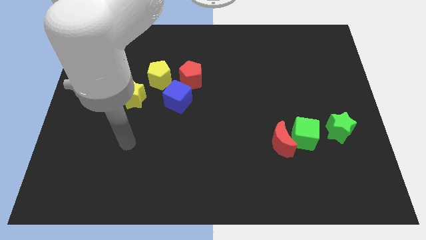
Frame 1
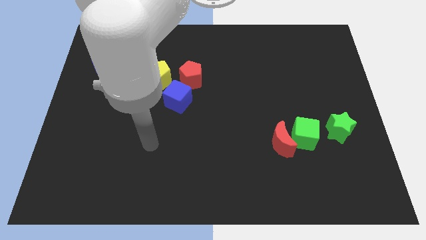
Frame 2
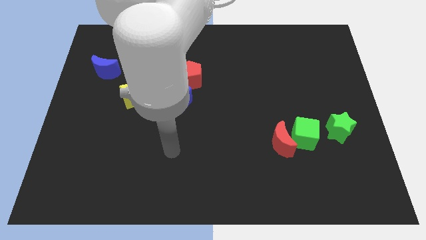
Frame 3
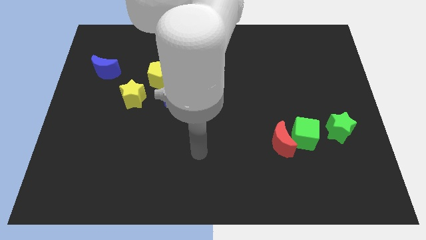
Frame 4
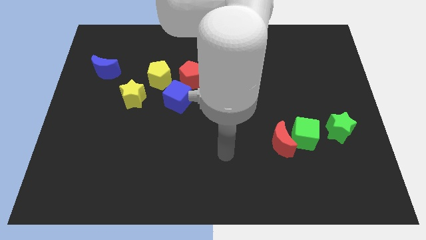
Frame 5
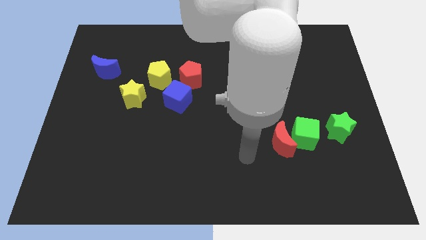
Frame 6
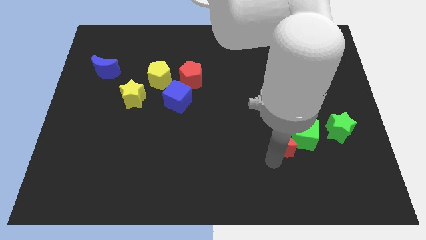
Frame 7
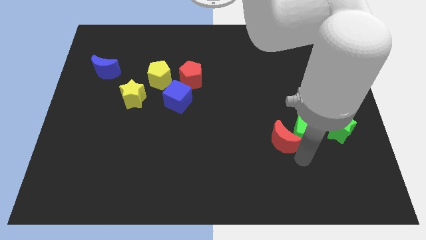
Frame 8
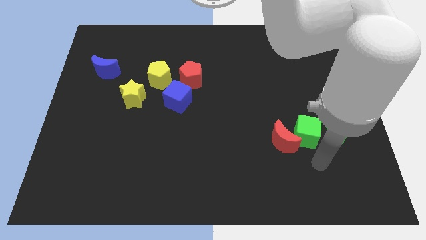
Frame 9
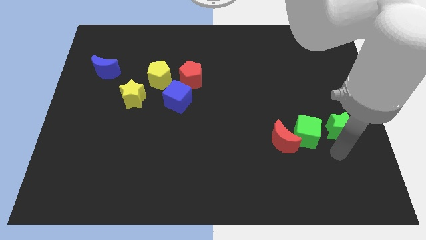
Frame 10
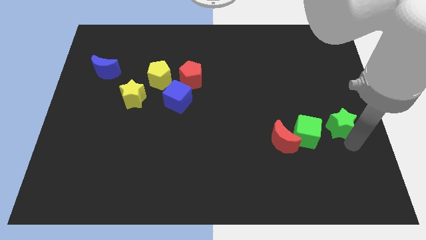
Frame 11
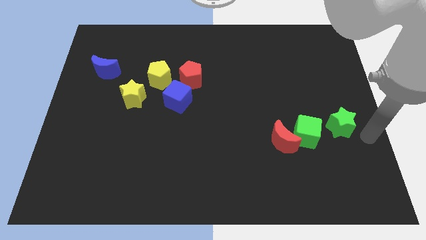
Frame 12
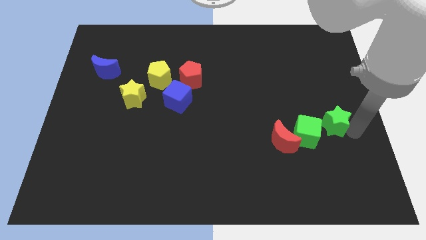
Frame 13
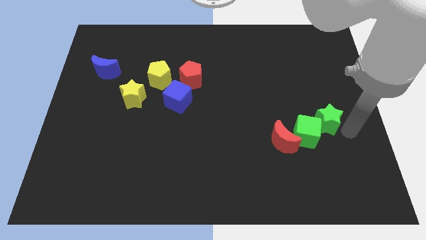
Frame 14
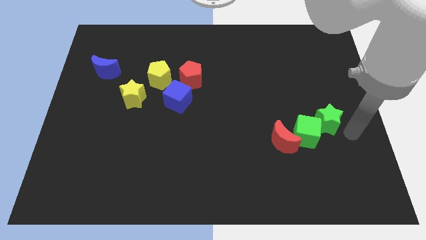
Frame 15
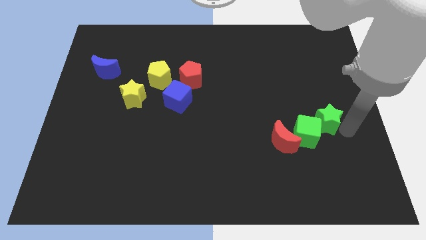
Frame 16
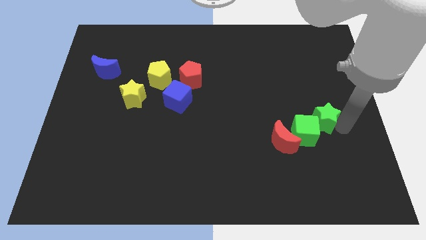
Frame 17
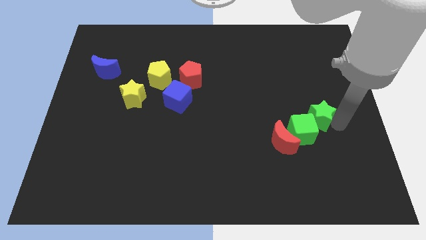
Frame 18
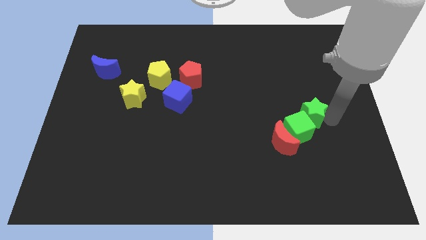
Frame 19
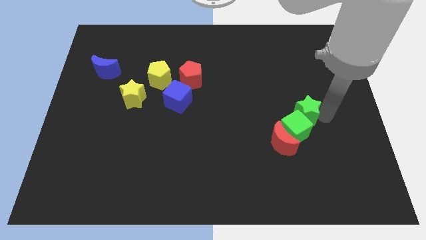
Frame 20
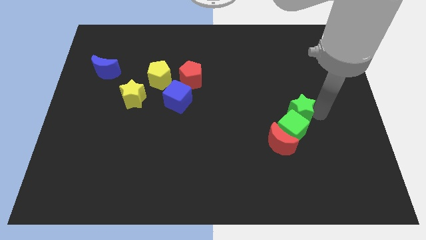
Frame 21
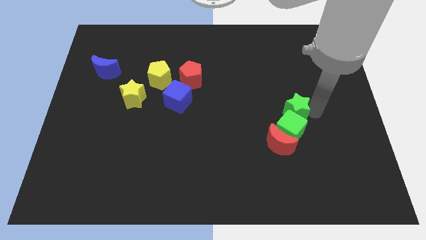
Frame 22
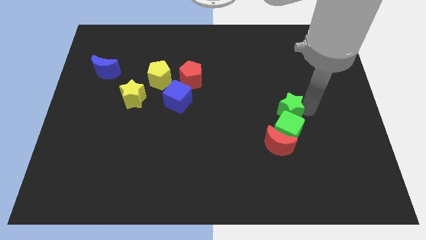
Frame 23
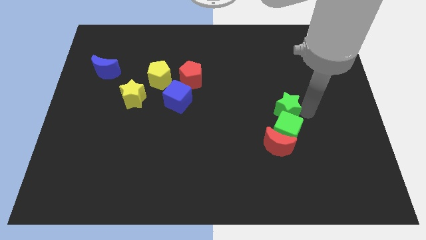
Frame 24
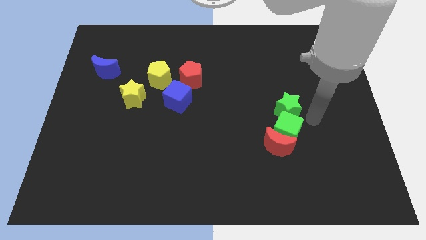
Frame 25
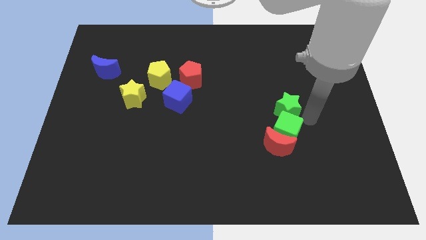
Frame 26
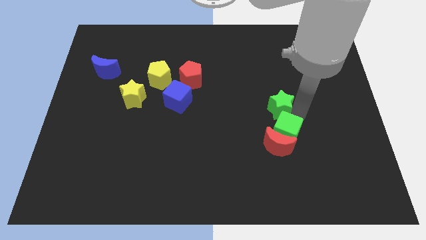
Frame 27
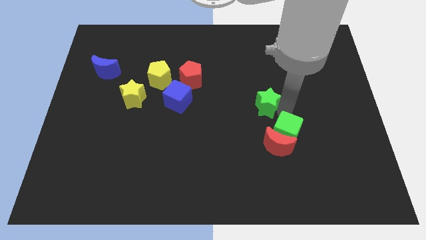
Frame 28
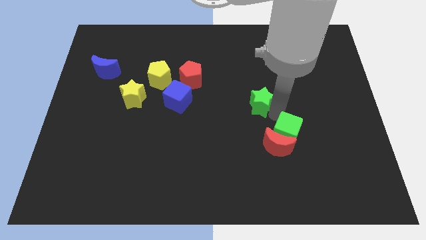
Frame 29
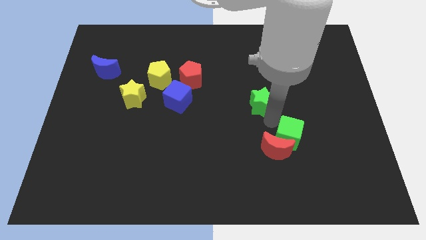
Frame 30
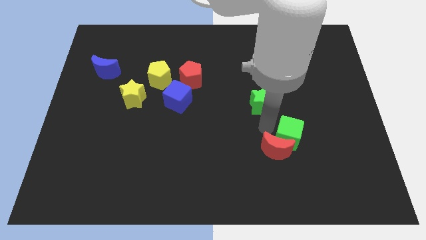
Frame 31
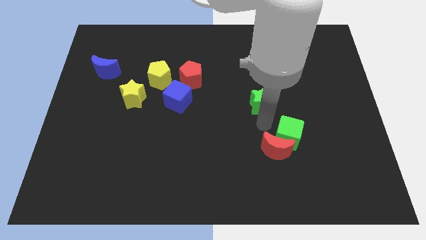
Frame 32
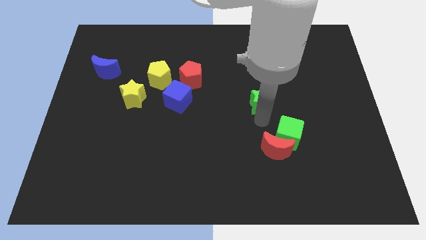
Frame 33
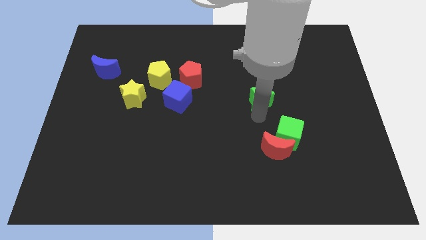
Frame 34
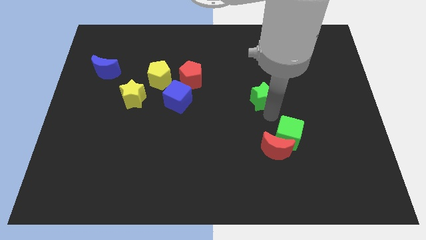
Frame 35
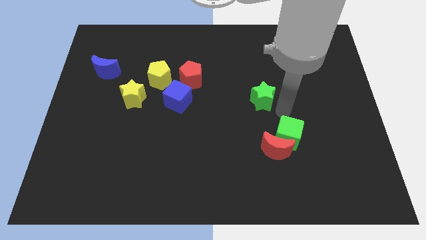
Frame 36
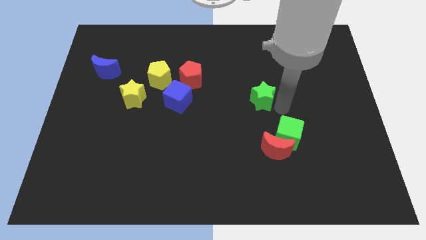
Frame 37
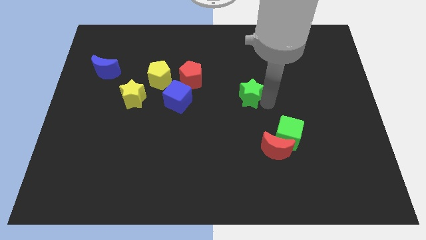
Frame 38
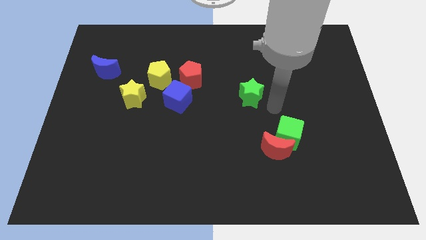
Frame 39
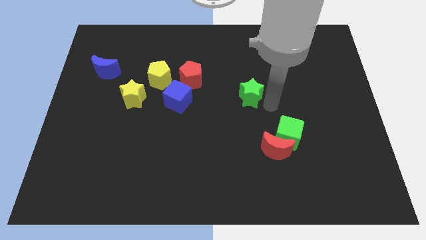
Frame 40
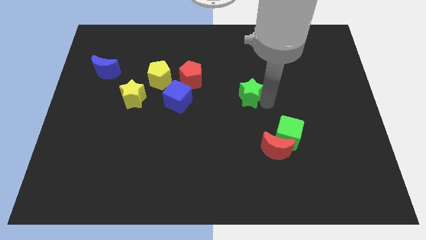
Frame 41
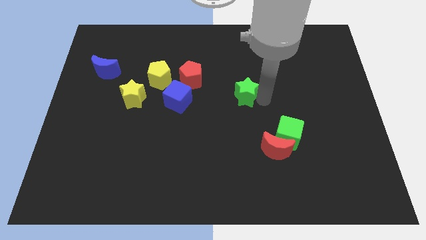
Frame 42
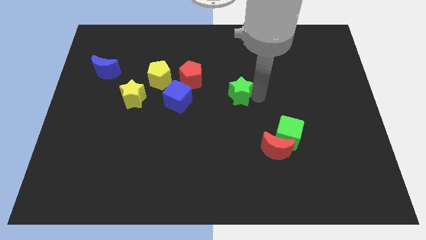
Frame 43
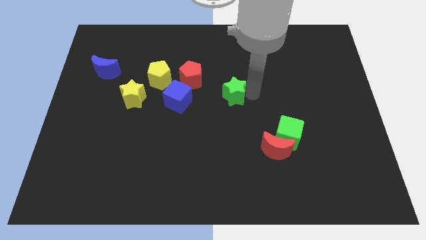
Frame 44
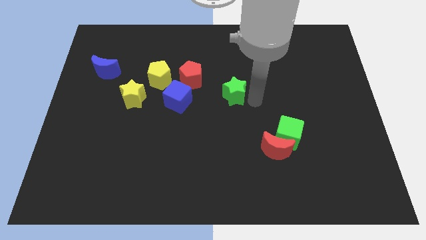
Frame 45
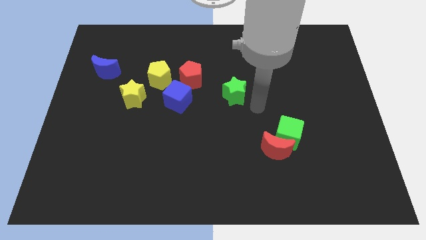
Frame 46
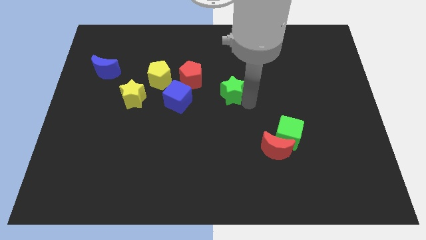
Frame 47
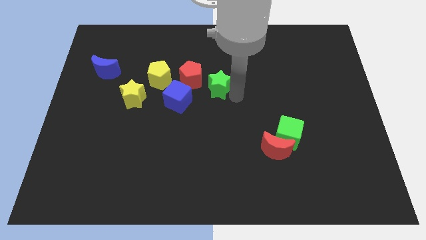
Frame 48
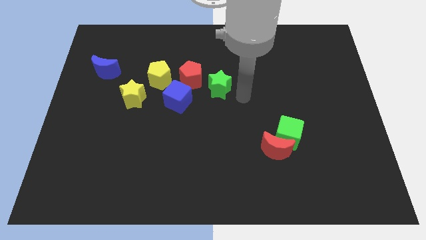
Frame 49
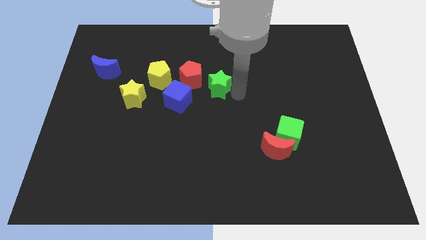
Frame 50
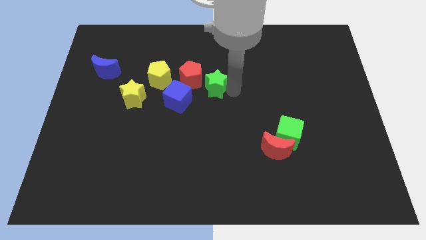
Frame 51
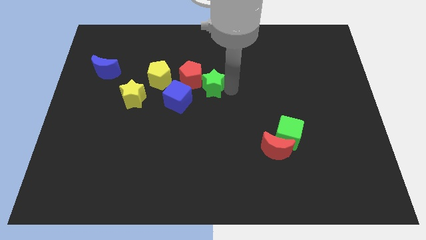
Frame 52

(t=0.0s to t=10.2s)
slide the green star next to the red pentagon

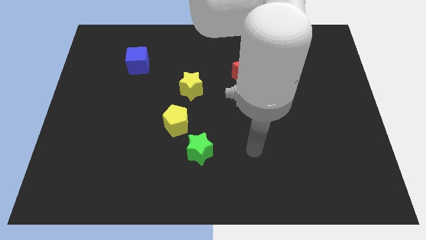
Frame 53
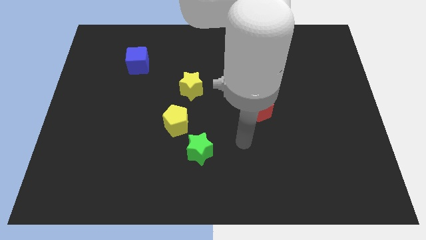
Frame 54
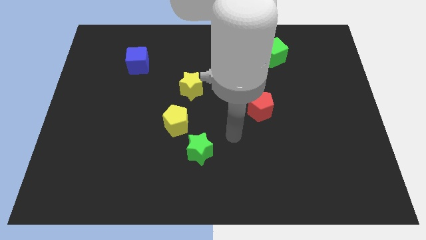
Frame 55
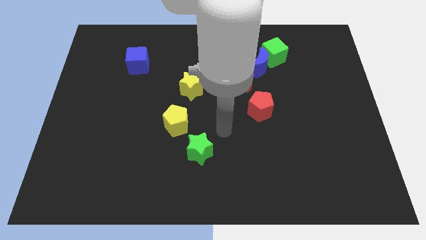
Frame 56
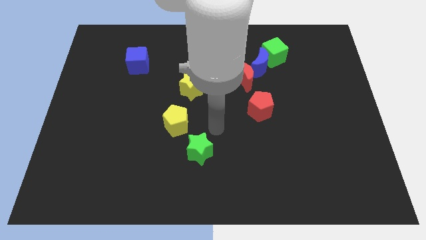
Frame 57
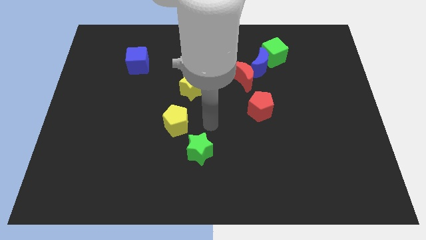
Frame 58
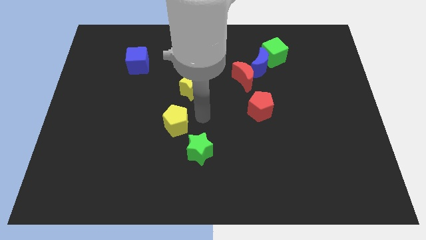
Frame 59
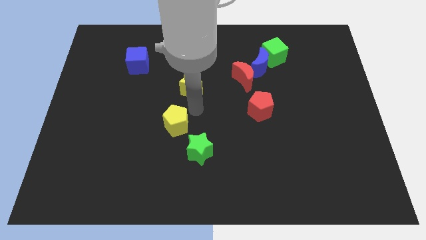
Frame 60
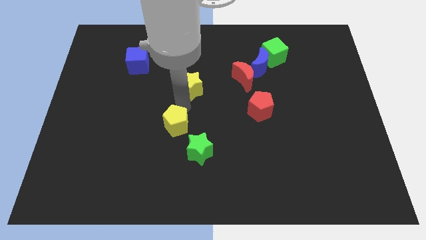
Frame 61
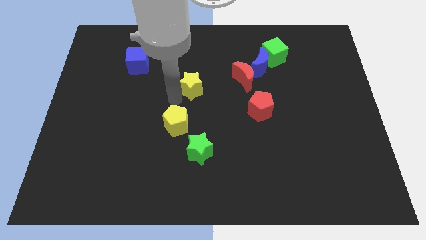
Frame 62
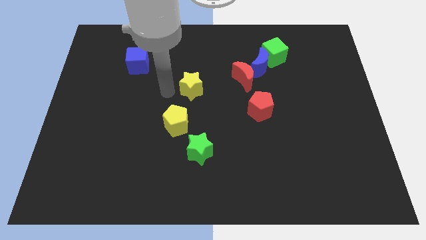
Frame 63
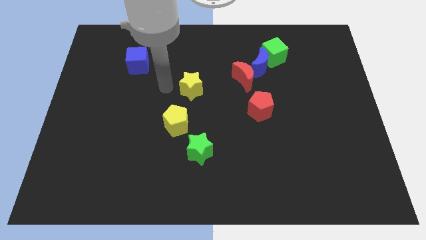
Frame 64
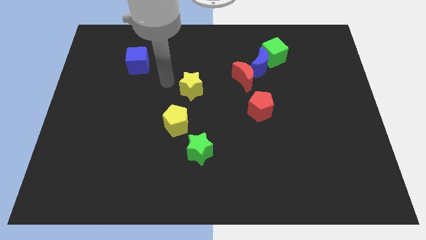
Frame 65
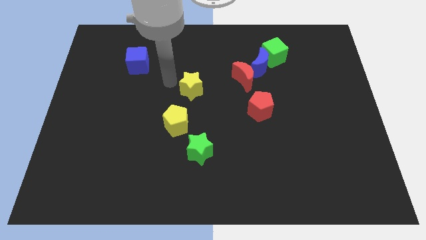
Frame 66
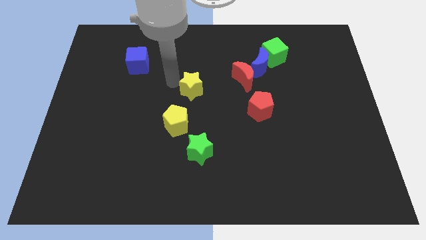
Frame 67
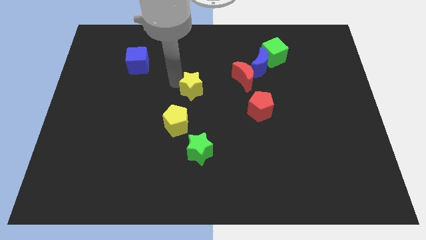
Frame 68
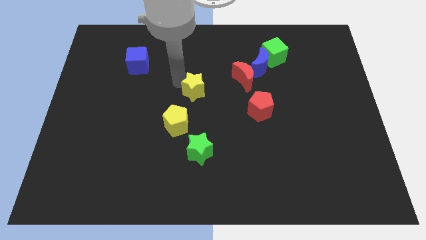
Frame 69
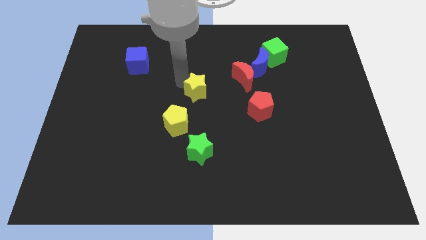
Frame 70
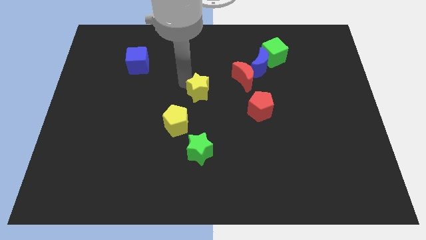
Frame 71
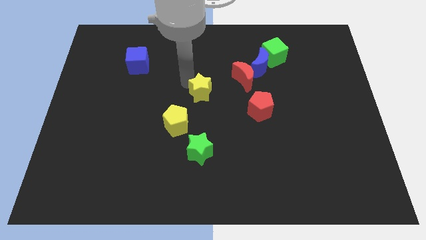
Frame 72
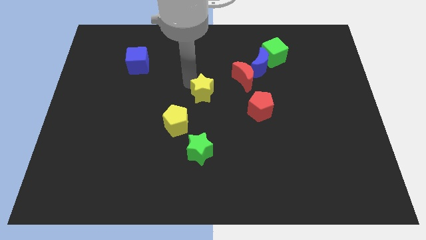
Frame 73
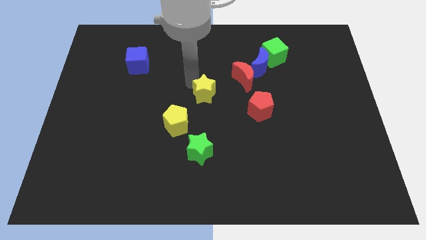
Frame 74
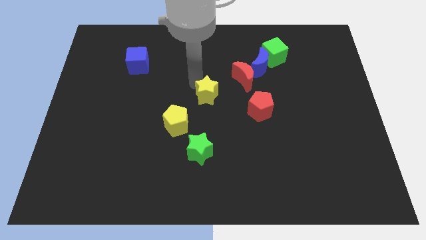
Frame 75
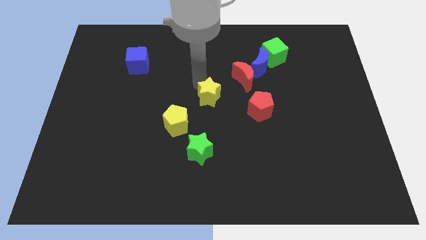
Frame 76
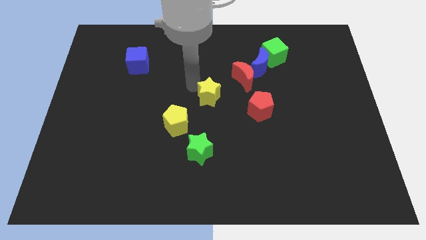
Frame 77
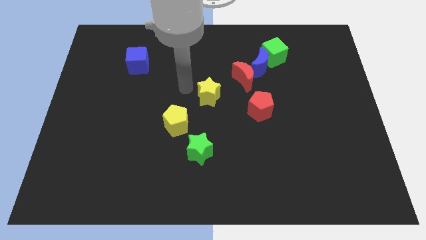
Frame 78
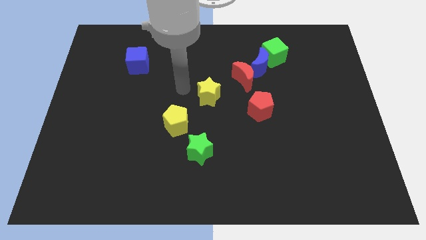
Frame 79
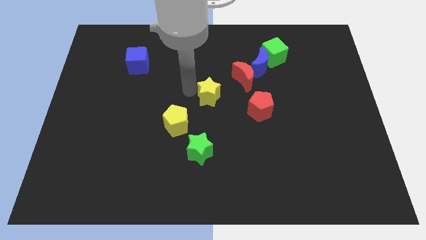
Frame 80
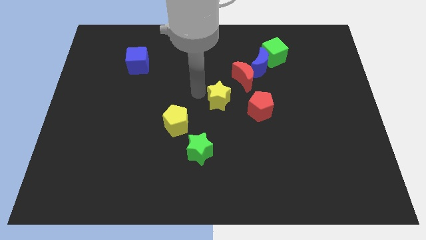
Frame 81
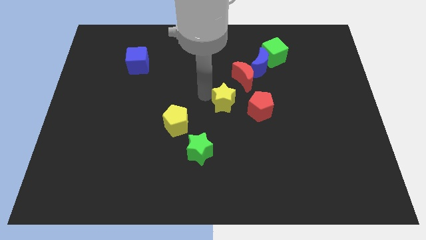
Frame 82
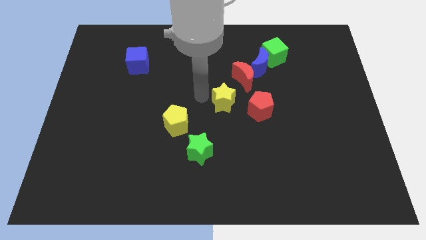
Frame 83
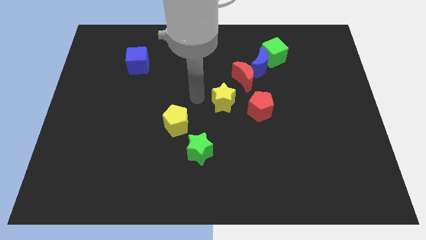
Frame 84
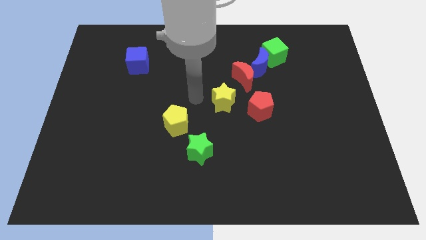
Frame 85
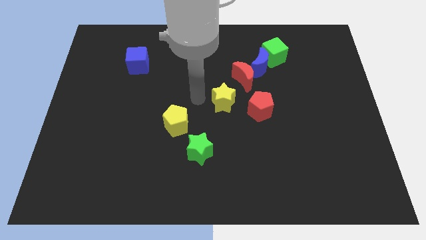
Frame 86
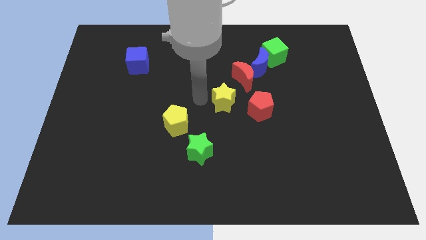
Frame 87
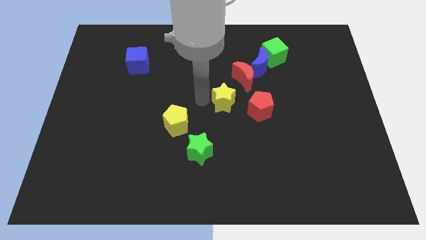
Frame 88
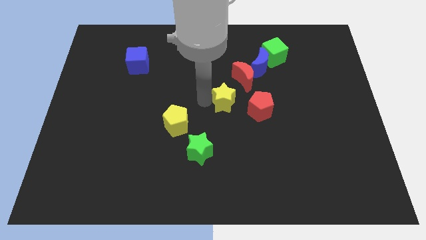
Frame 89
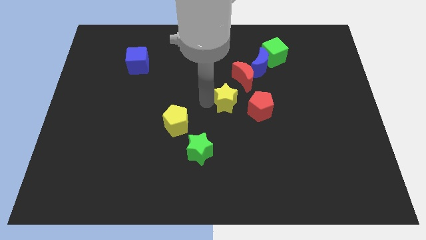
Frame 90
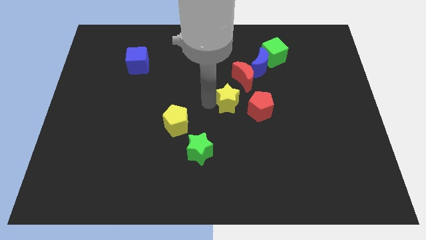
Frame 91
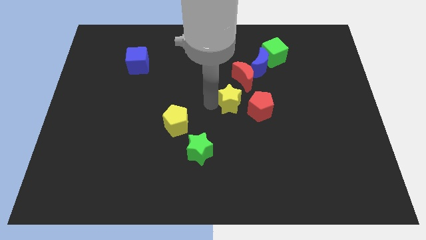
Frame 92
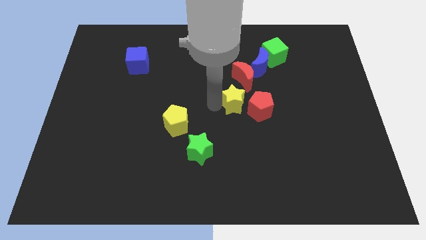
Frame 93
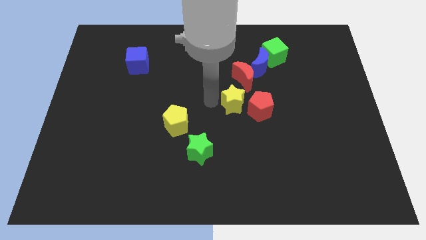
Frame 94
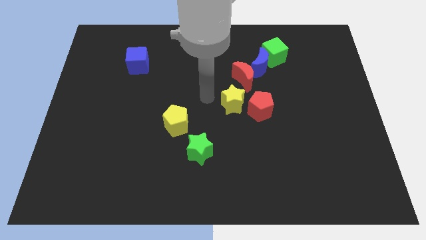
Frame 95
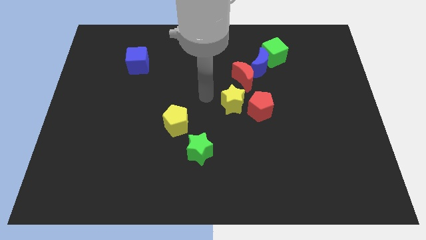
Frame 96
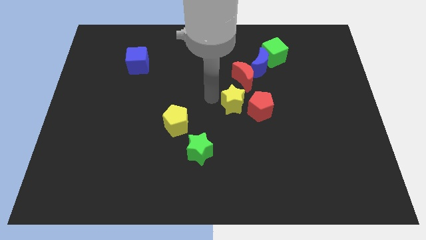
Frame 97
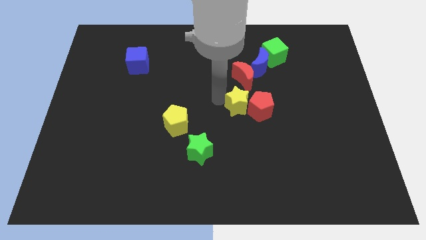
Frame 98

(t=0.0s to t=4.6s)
move the yellow star close to the red pentagon
